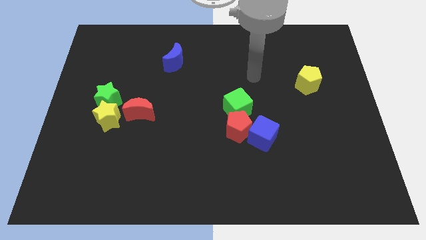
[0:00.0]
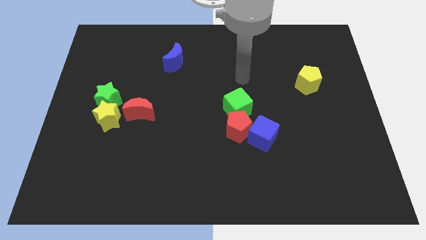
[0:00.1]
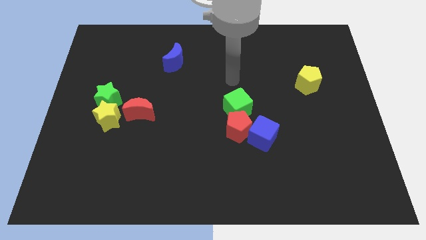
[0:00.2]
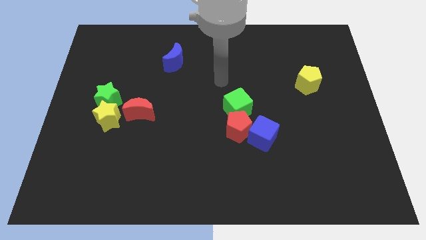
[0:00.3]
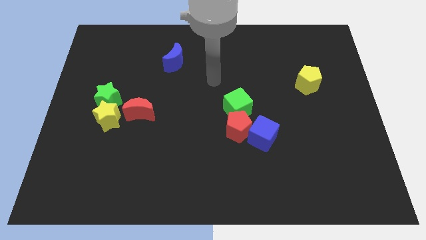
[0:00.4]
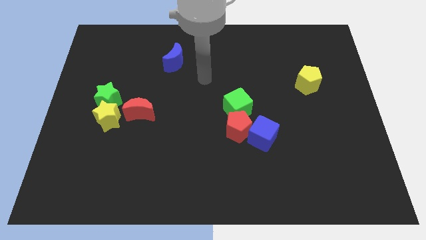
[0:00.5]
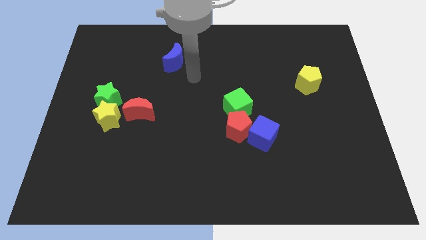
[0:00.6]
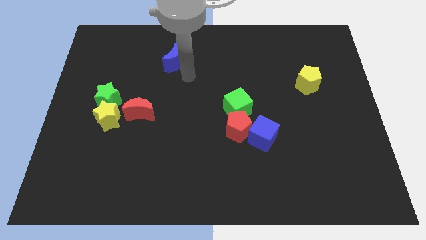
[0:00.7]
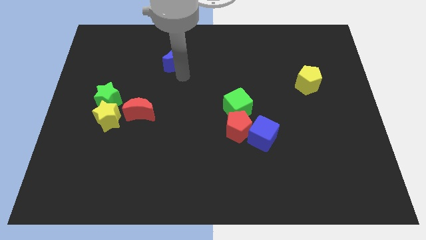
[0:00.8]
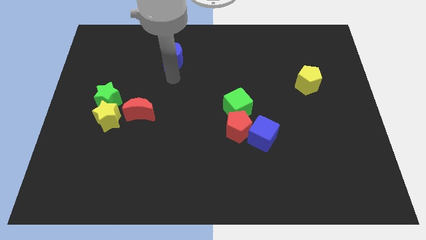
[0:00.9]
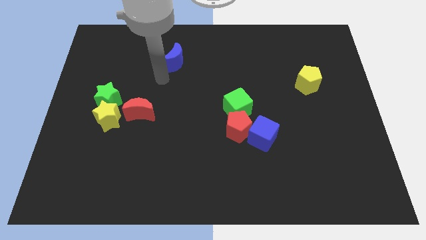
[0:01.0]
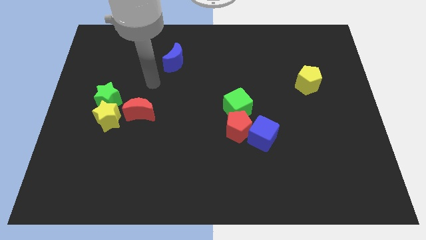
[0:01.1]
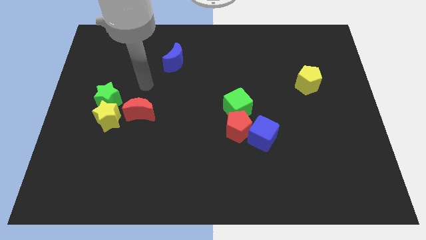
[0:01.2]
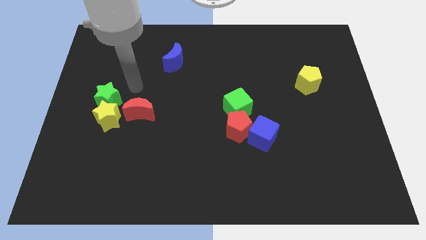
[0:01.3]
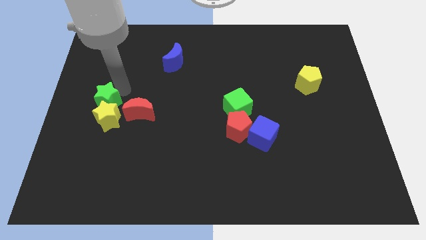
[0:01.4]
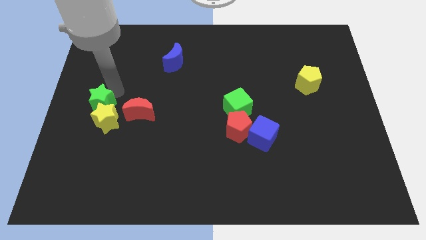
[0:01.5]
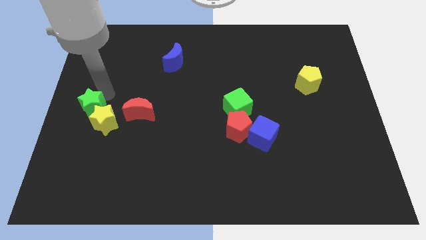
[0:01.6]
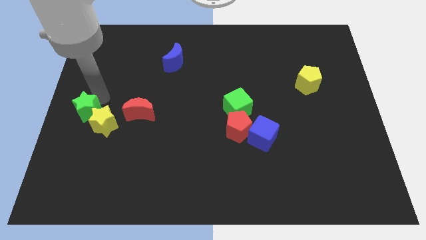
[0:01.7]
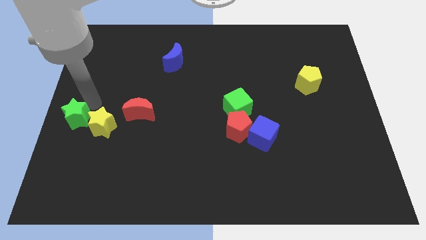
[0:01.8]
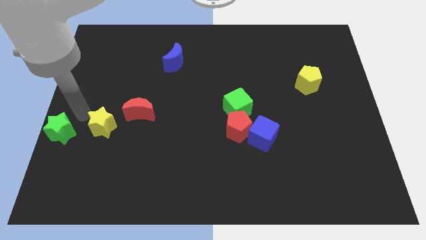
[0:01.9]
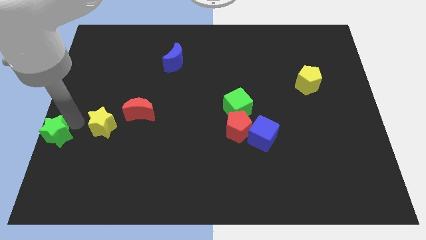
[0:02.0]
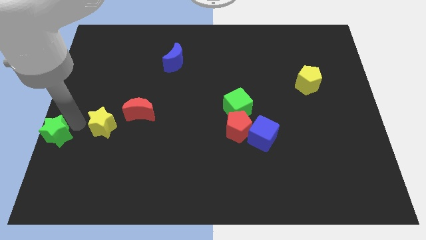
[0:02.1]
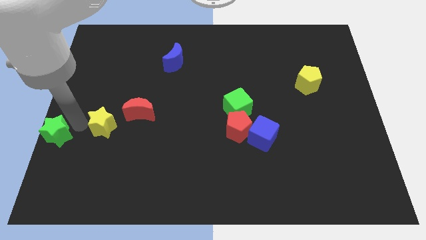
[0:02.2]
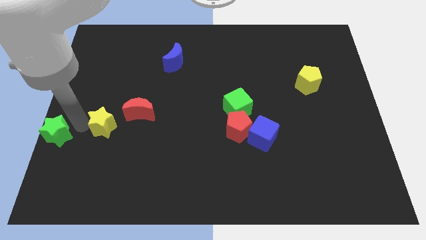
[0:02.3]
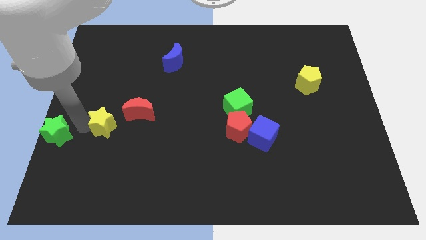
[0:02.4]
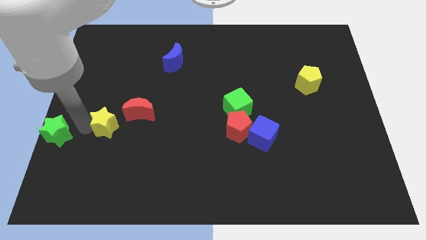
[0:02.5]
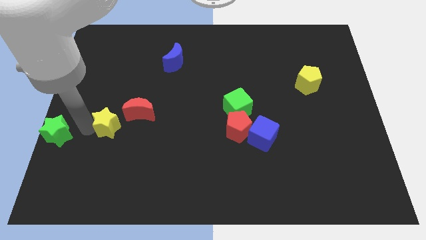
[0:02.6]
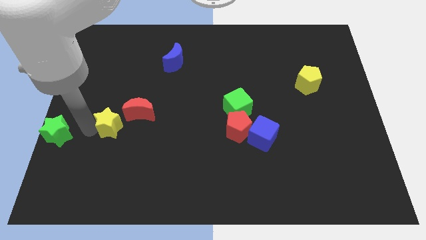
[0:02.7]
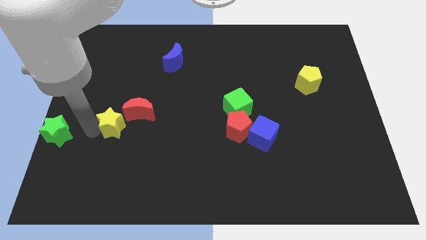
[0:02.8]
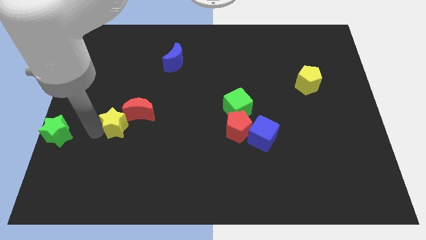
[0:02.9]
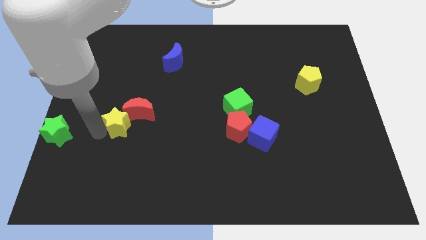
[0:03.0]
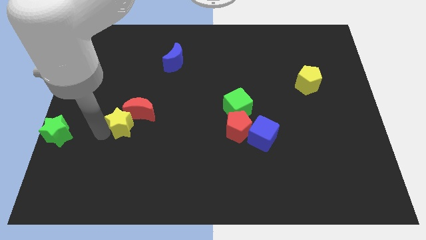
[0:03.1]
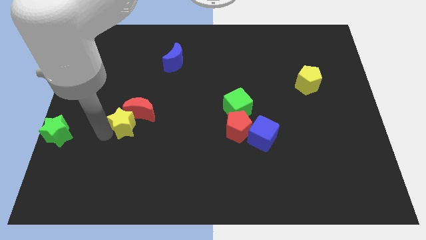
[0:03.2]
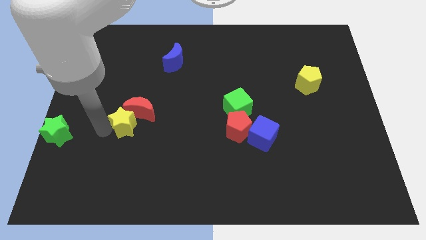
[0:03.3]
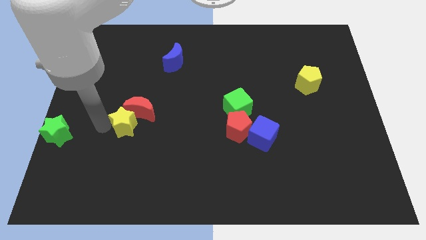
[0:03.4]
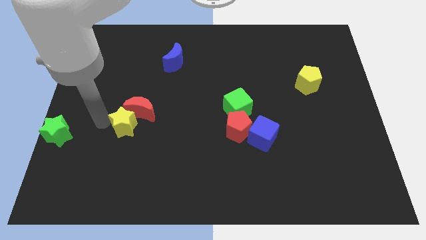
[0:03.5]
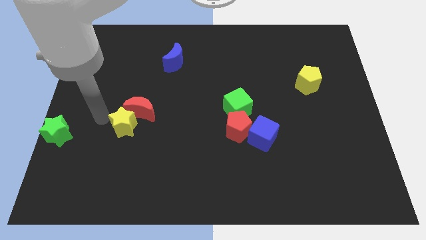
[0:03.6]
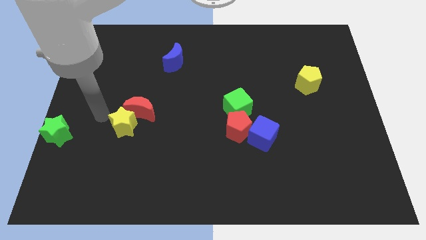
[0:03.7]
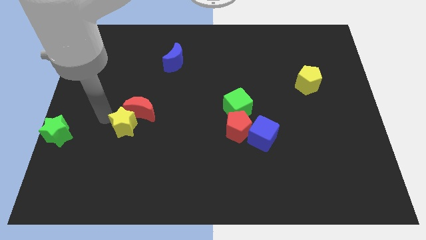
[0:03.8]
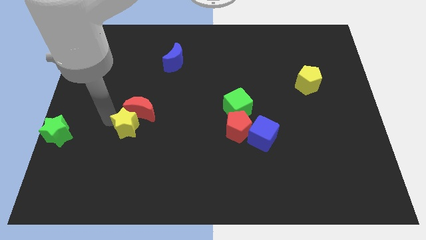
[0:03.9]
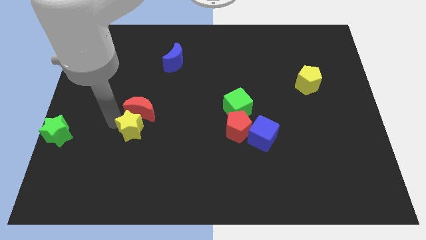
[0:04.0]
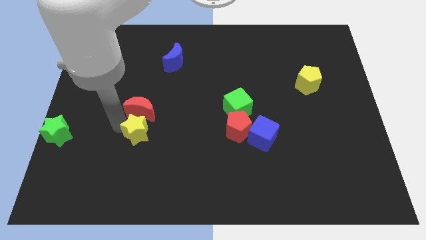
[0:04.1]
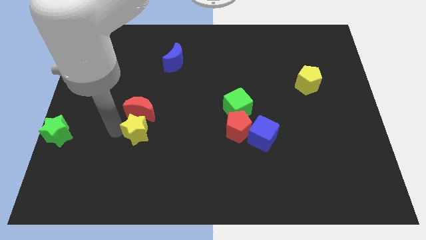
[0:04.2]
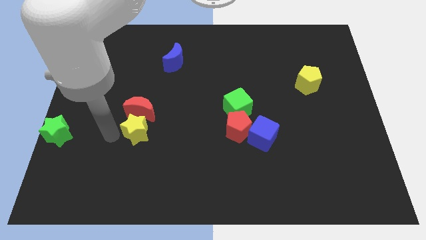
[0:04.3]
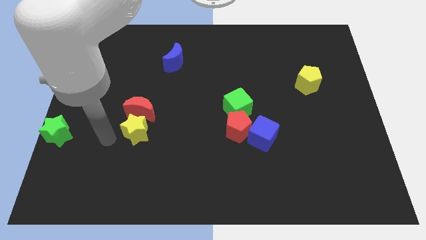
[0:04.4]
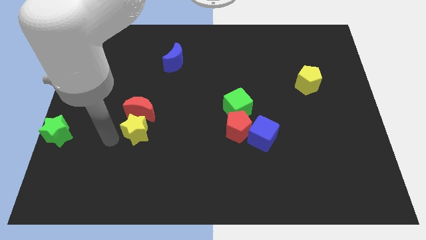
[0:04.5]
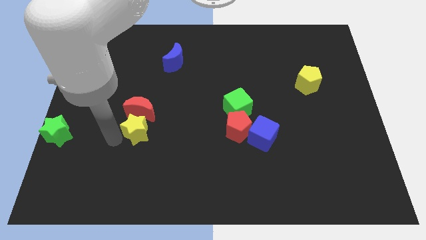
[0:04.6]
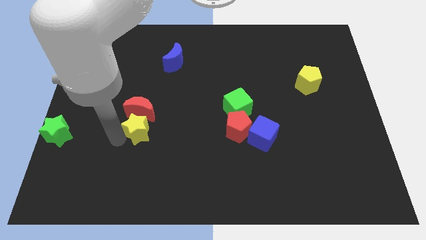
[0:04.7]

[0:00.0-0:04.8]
move the yellow star right slightly

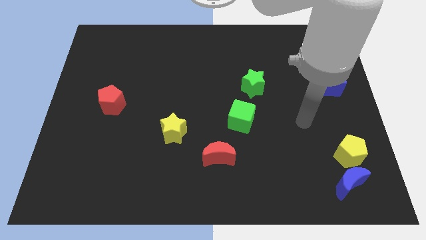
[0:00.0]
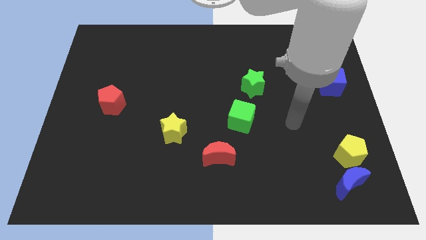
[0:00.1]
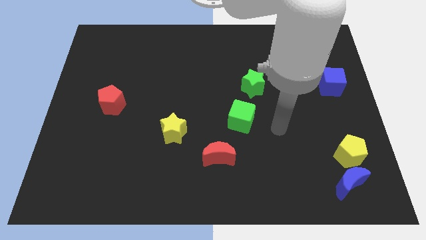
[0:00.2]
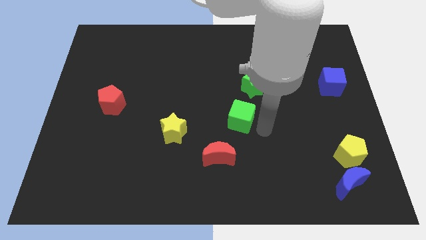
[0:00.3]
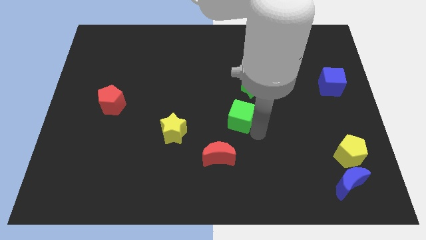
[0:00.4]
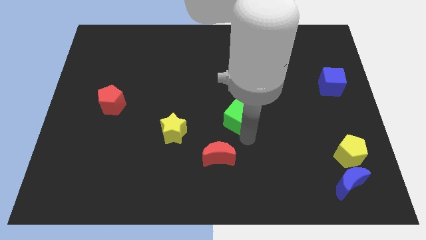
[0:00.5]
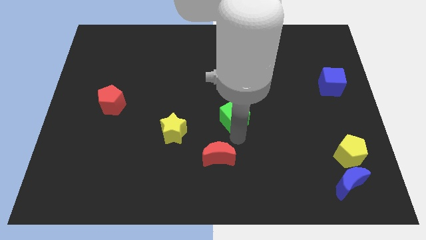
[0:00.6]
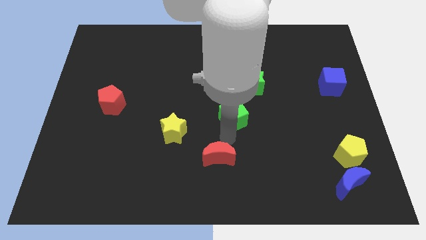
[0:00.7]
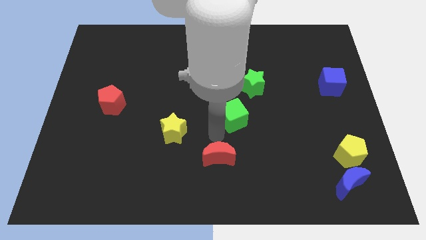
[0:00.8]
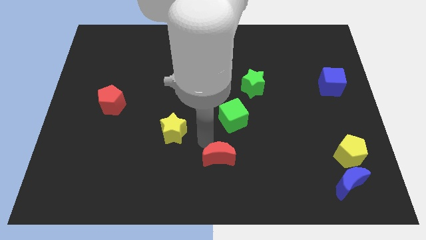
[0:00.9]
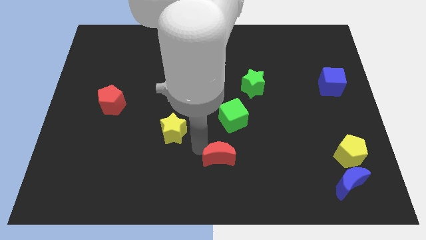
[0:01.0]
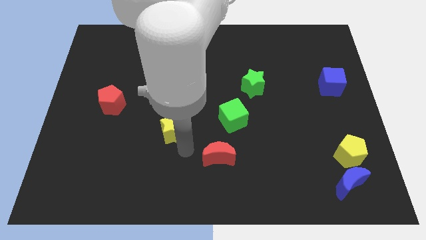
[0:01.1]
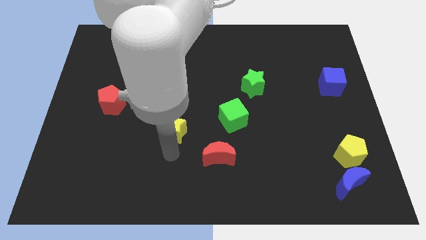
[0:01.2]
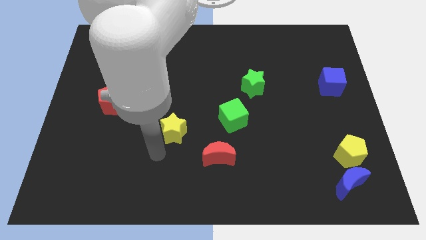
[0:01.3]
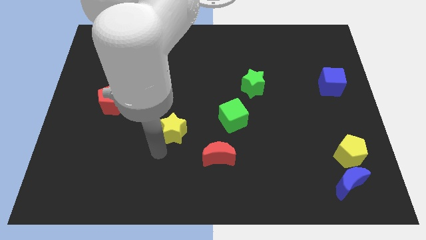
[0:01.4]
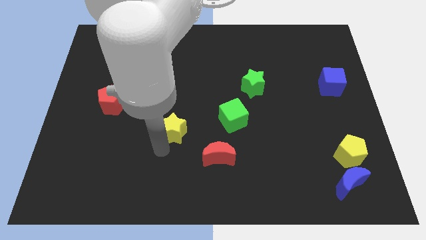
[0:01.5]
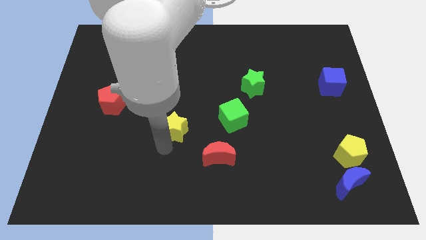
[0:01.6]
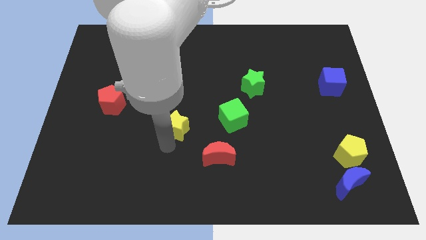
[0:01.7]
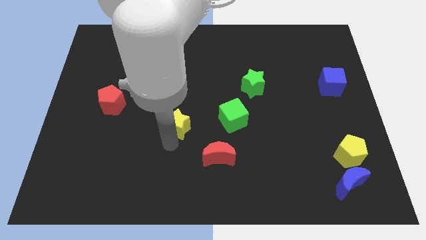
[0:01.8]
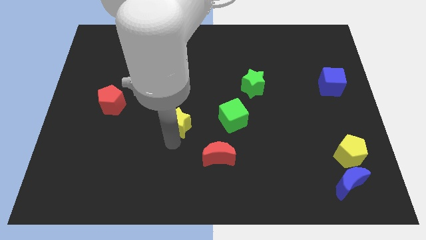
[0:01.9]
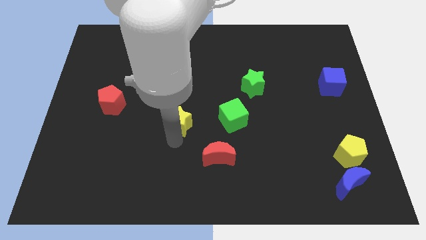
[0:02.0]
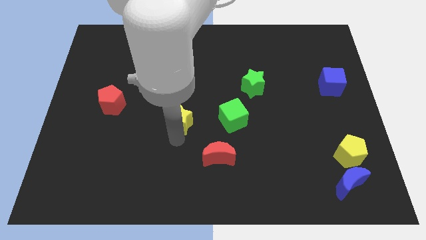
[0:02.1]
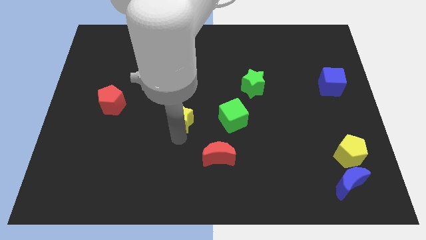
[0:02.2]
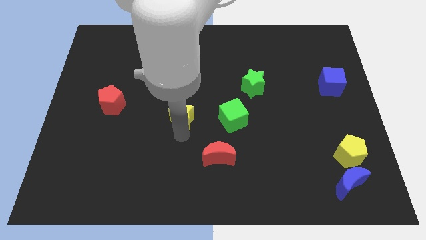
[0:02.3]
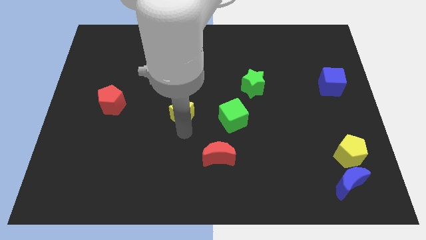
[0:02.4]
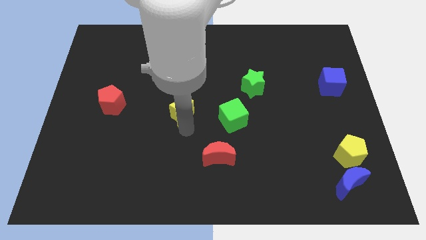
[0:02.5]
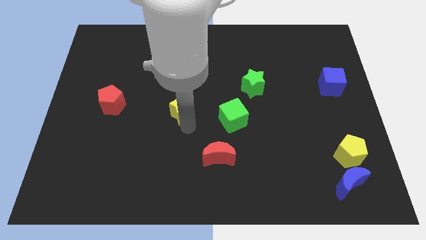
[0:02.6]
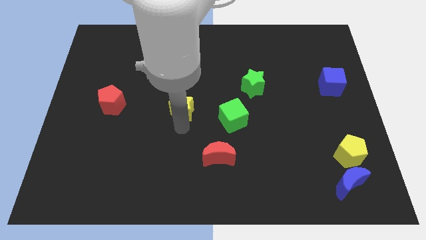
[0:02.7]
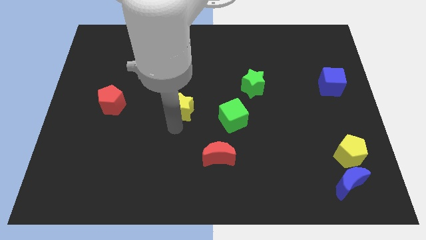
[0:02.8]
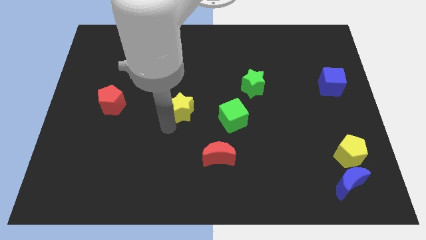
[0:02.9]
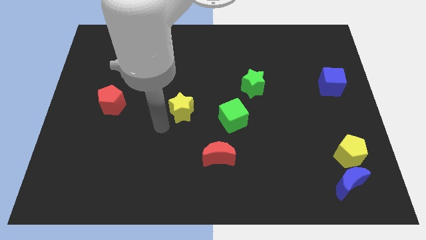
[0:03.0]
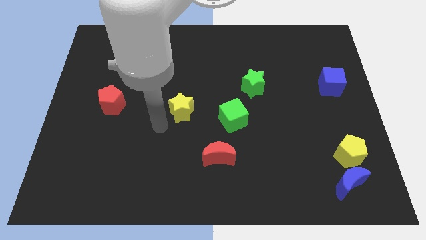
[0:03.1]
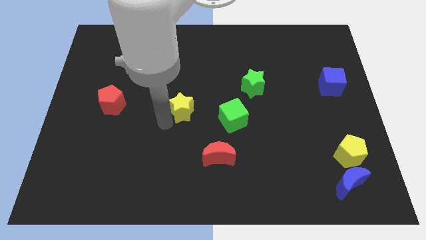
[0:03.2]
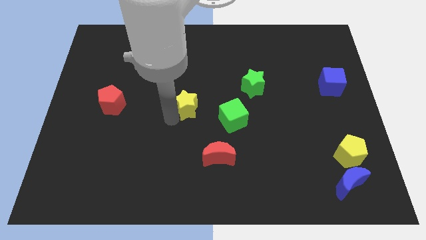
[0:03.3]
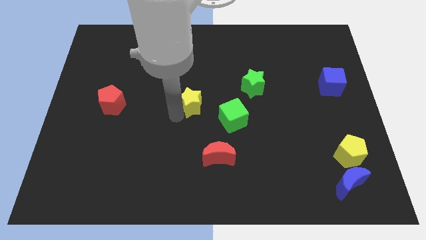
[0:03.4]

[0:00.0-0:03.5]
slightly push the yellow star up and then to the right
